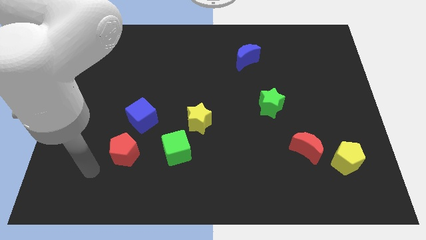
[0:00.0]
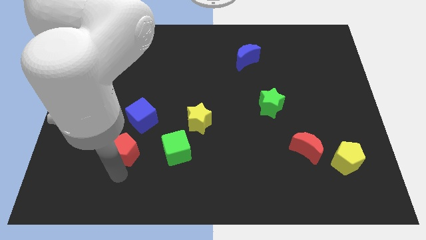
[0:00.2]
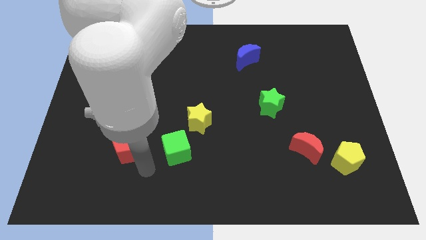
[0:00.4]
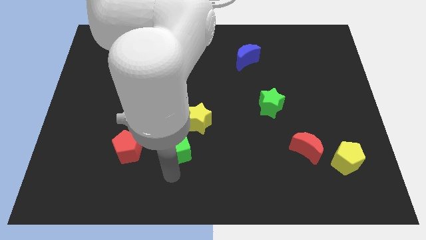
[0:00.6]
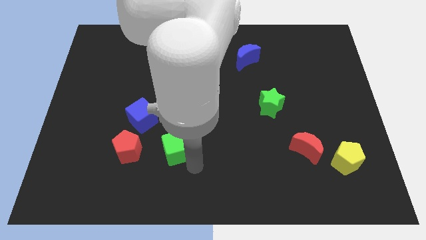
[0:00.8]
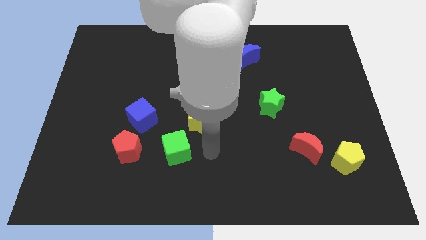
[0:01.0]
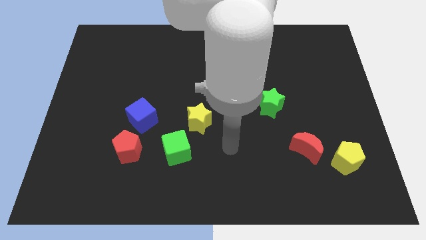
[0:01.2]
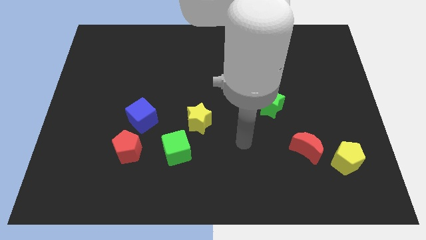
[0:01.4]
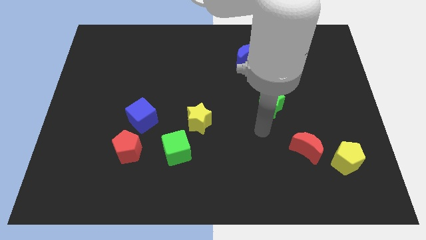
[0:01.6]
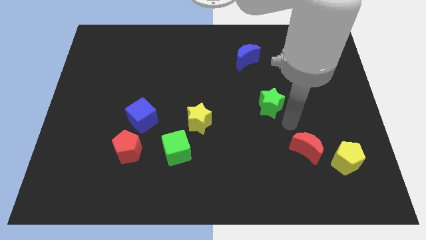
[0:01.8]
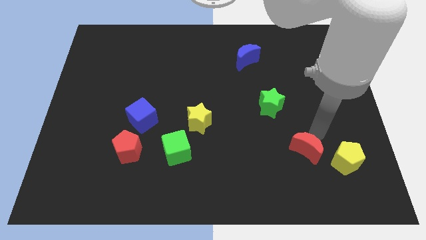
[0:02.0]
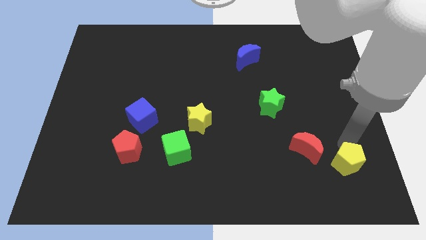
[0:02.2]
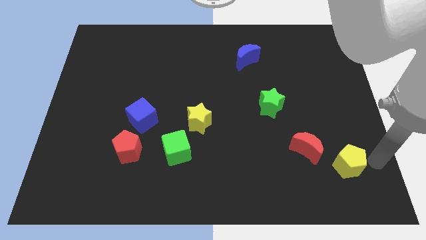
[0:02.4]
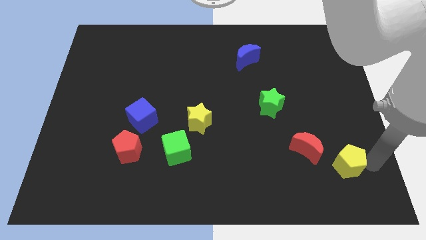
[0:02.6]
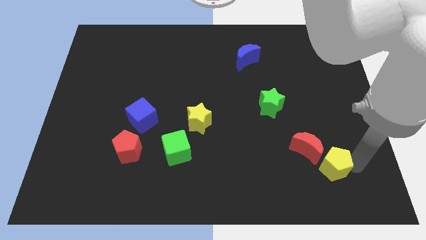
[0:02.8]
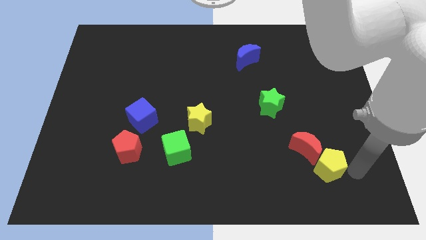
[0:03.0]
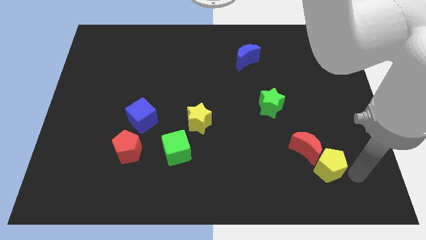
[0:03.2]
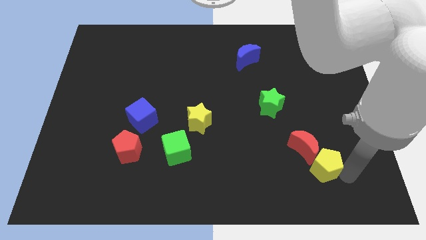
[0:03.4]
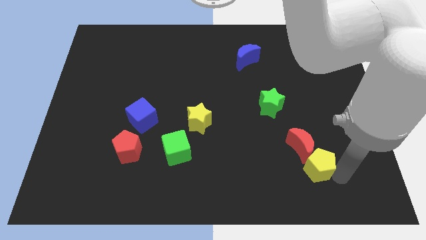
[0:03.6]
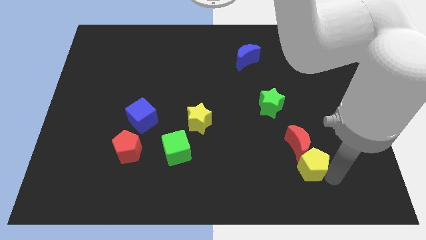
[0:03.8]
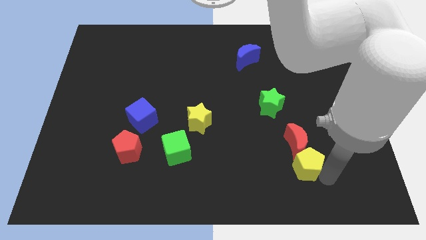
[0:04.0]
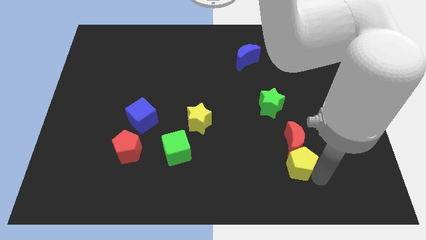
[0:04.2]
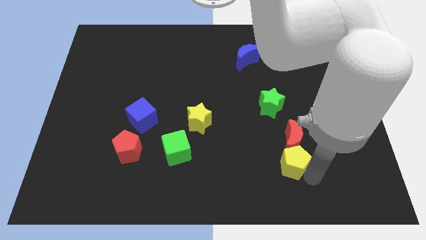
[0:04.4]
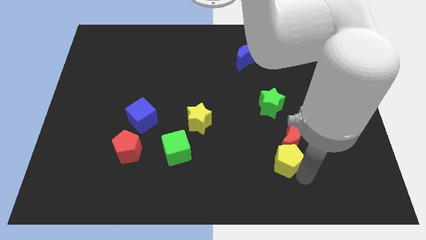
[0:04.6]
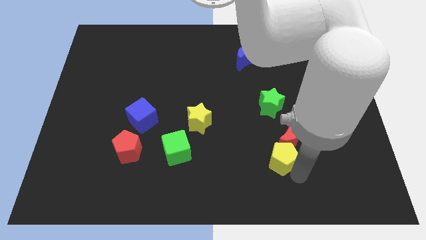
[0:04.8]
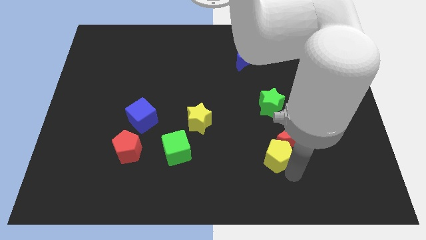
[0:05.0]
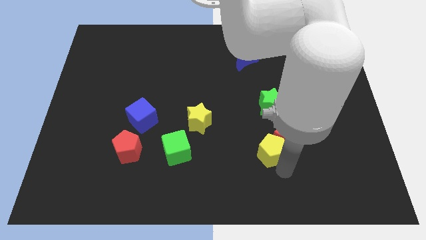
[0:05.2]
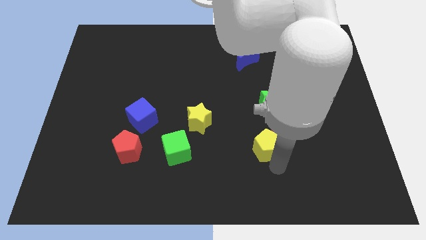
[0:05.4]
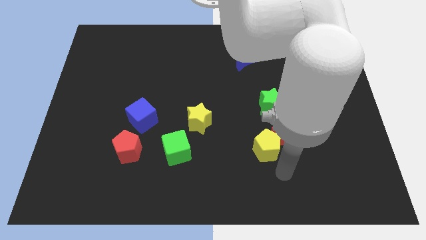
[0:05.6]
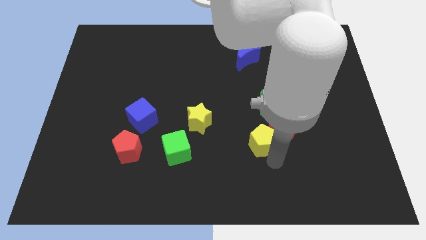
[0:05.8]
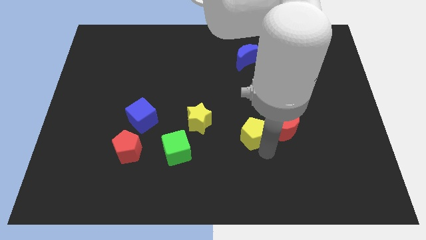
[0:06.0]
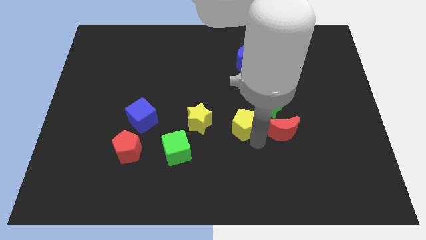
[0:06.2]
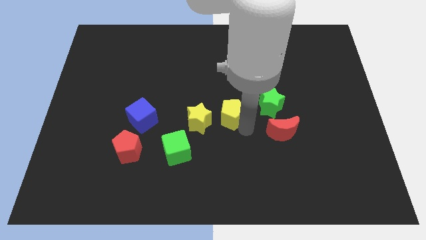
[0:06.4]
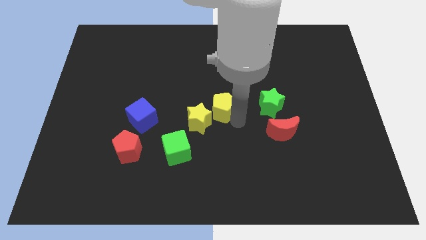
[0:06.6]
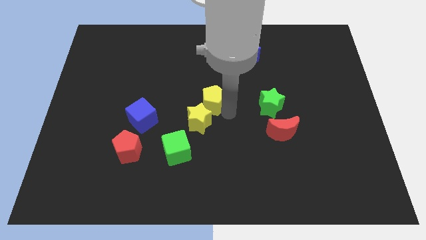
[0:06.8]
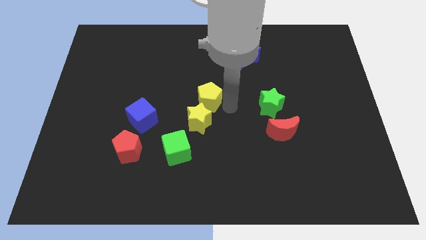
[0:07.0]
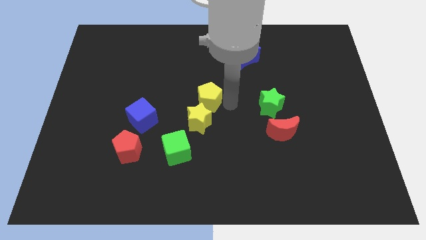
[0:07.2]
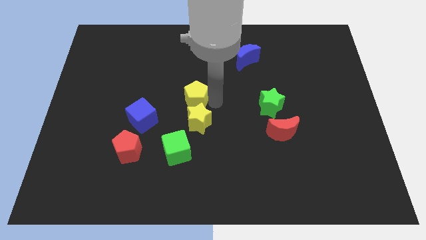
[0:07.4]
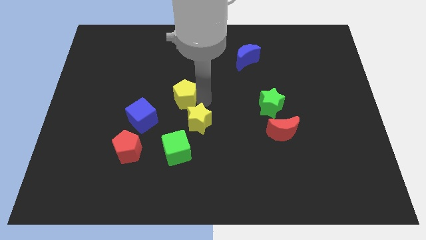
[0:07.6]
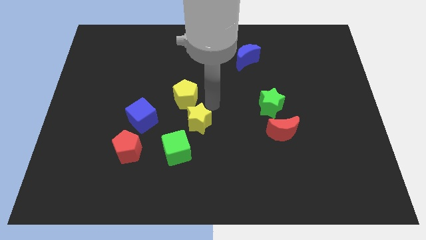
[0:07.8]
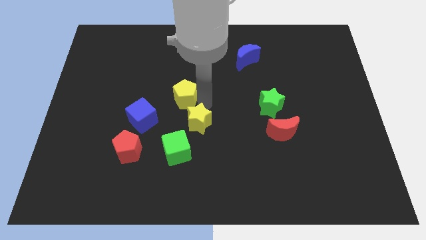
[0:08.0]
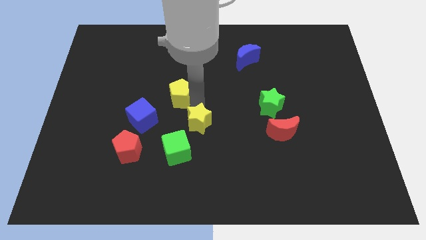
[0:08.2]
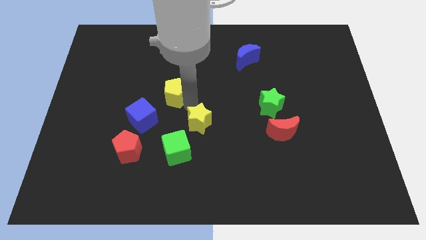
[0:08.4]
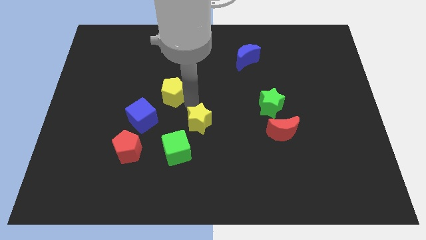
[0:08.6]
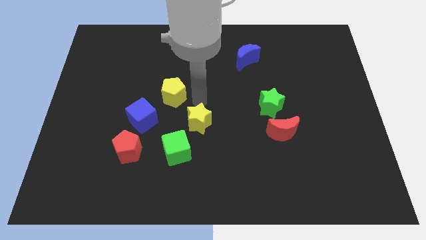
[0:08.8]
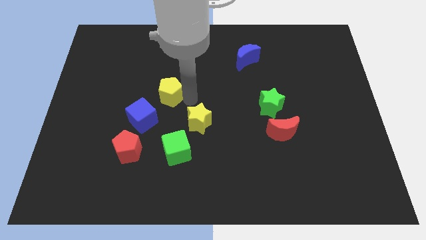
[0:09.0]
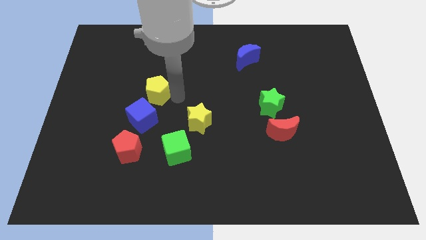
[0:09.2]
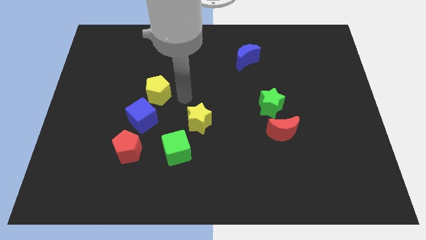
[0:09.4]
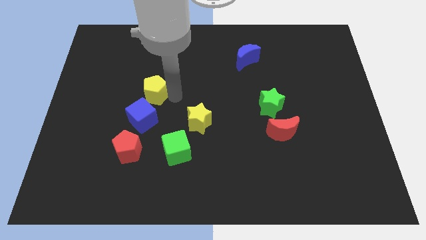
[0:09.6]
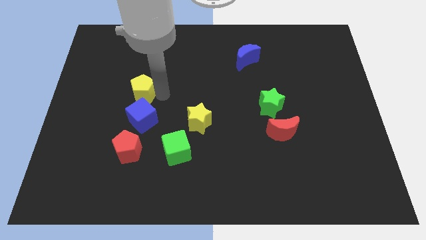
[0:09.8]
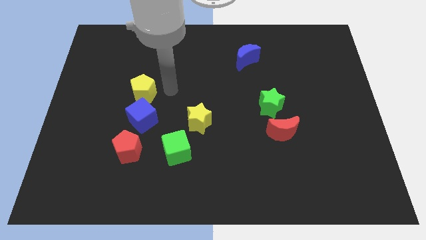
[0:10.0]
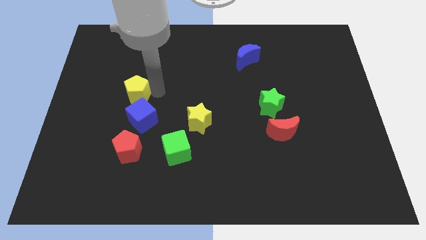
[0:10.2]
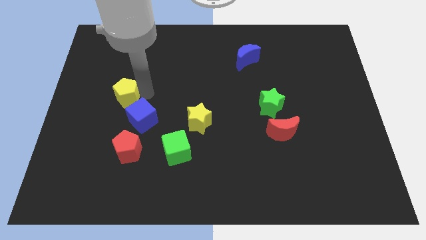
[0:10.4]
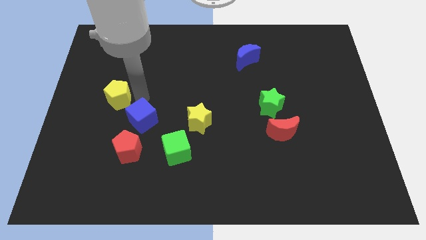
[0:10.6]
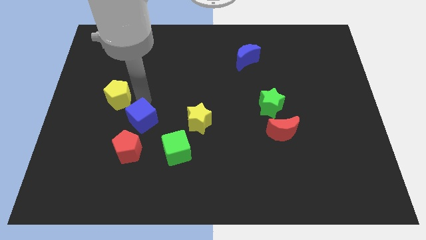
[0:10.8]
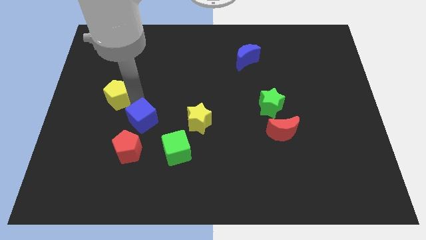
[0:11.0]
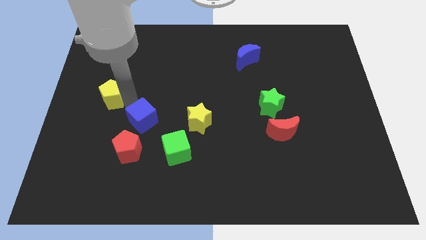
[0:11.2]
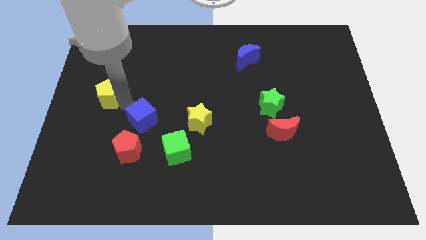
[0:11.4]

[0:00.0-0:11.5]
push the yellow pentagon to the left side of the board
